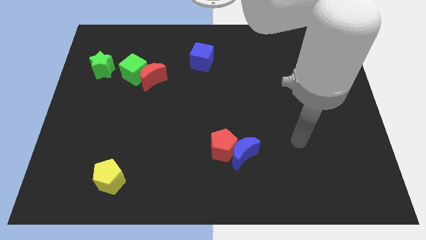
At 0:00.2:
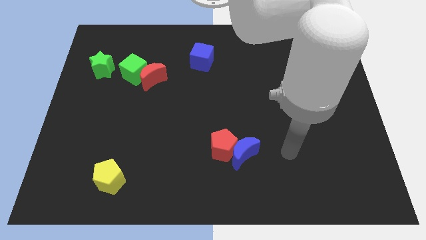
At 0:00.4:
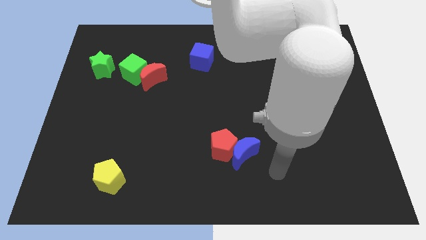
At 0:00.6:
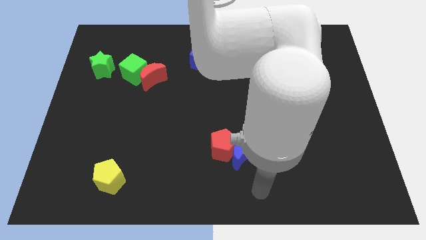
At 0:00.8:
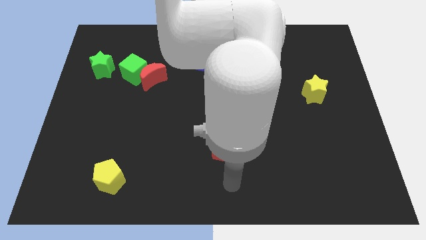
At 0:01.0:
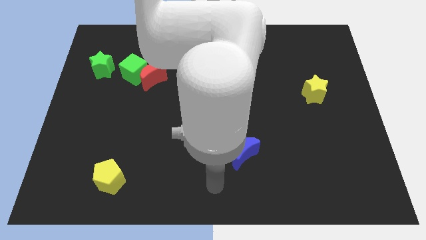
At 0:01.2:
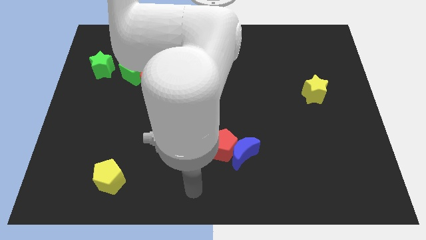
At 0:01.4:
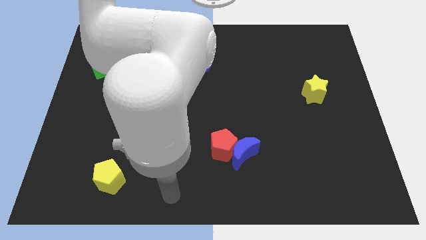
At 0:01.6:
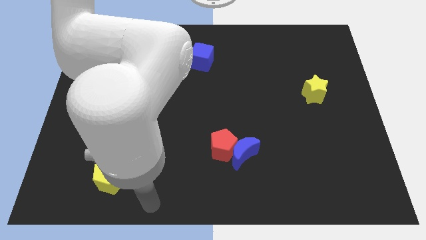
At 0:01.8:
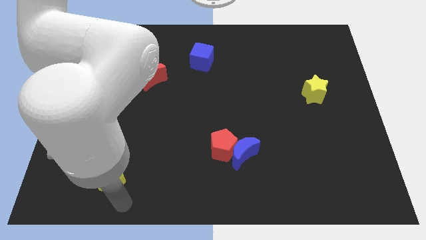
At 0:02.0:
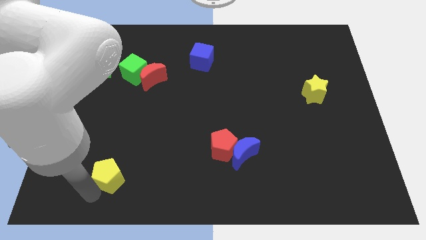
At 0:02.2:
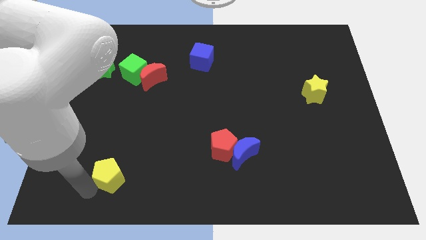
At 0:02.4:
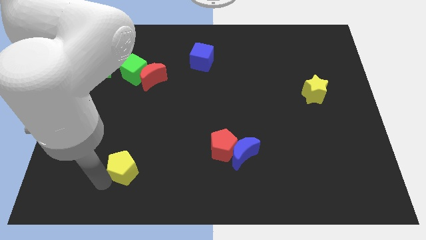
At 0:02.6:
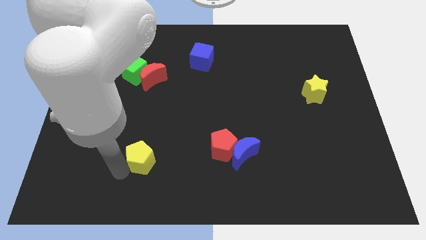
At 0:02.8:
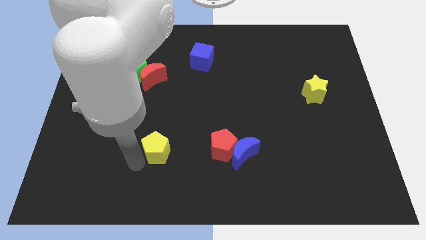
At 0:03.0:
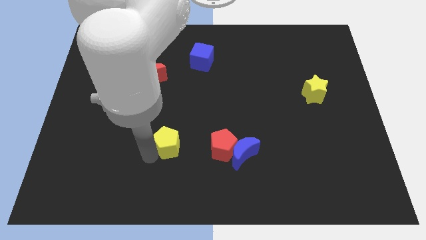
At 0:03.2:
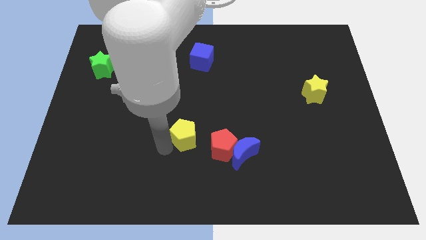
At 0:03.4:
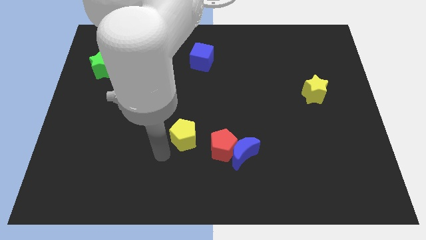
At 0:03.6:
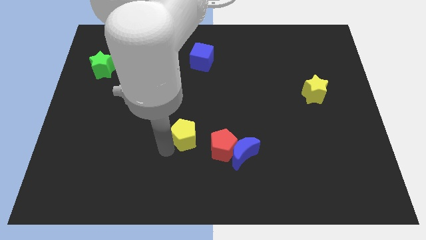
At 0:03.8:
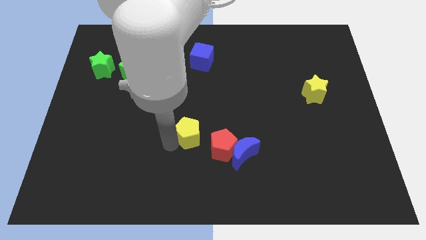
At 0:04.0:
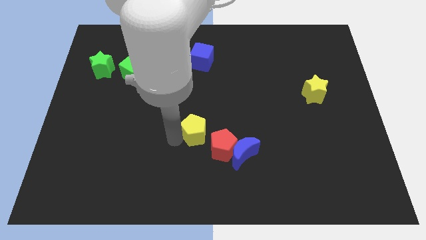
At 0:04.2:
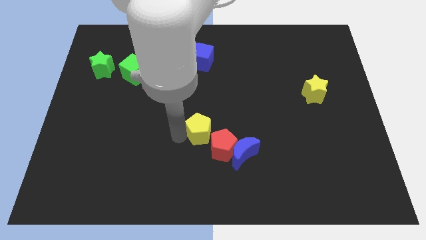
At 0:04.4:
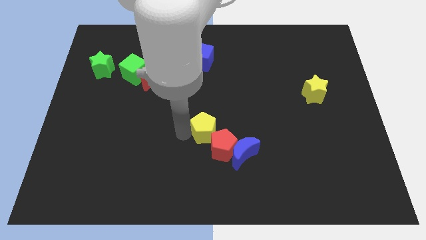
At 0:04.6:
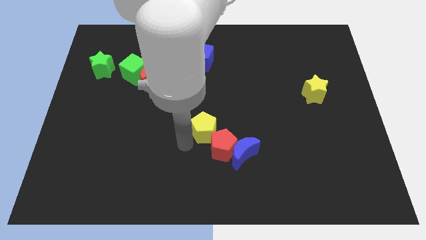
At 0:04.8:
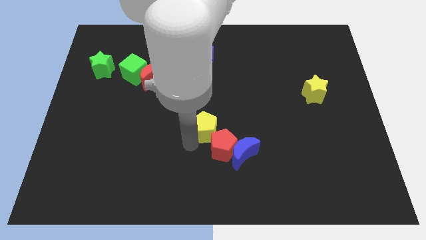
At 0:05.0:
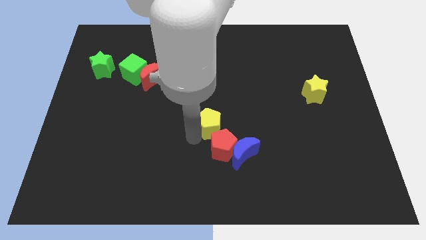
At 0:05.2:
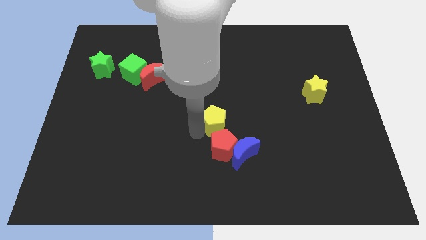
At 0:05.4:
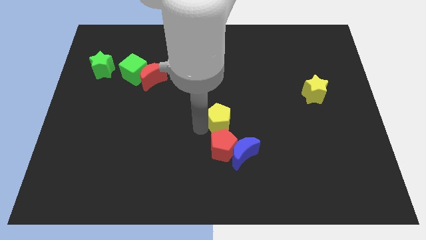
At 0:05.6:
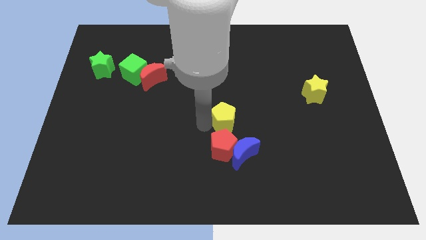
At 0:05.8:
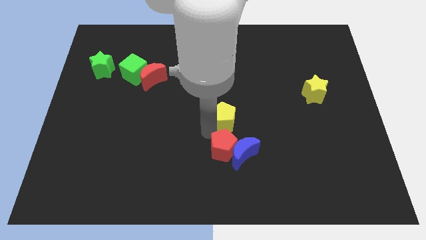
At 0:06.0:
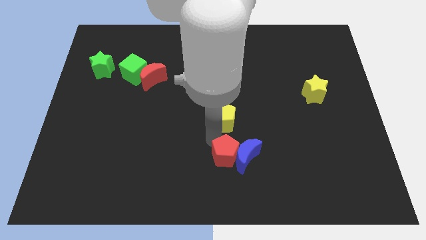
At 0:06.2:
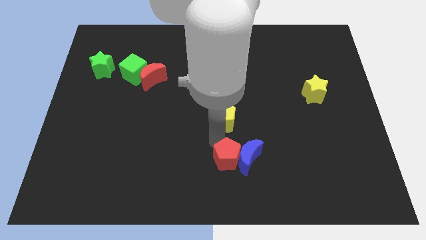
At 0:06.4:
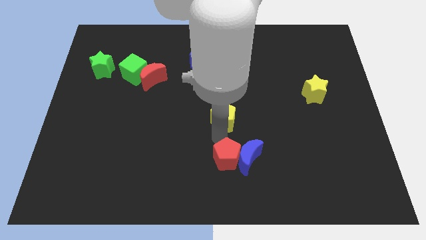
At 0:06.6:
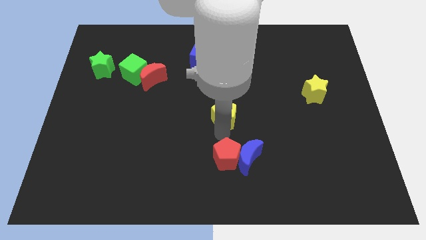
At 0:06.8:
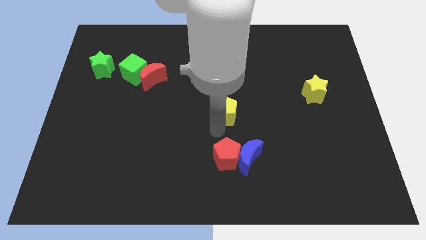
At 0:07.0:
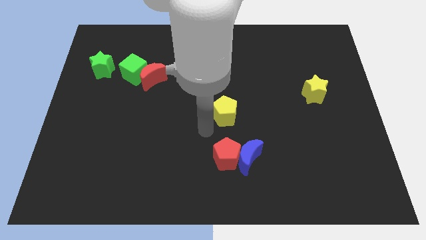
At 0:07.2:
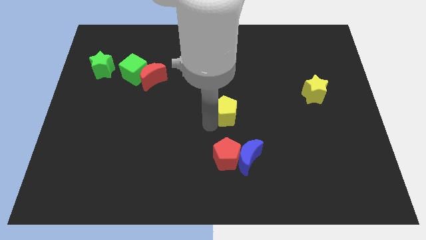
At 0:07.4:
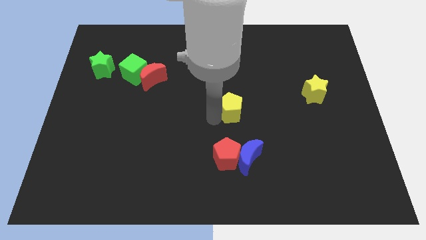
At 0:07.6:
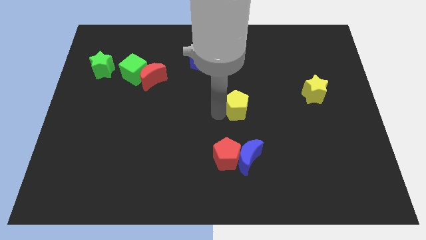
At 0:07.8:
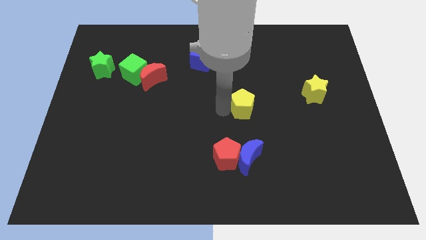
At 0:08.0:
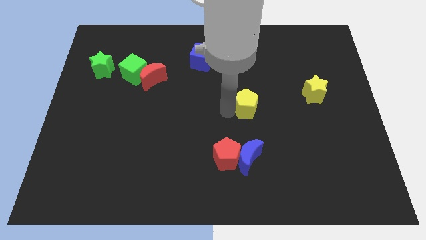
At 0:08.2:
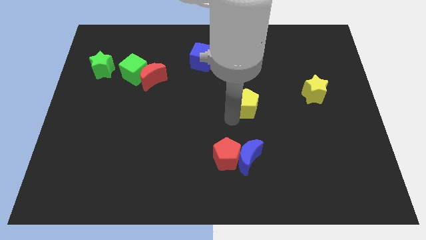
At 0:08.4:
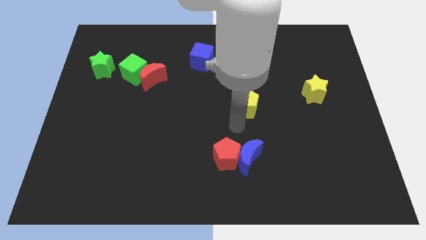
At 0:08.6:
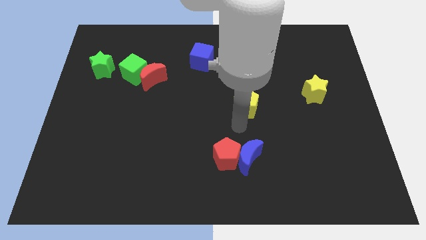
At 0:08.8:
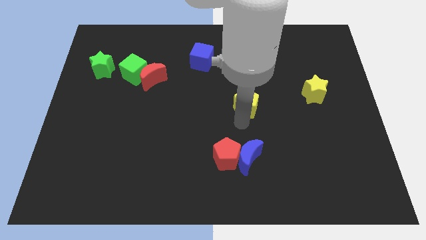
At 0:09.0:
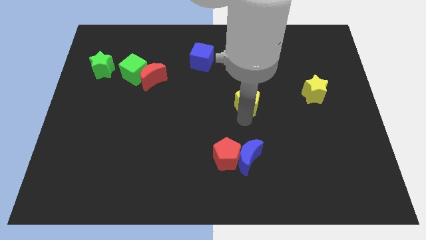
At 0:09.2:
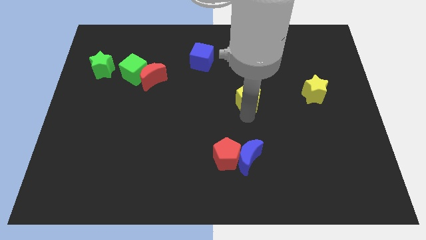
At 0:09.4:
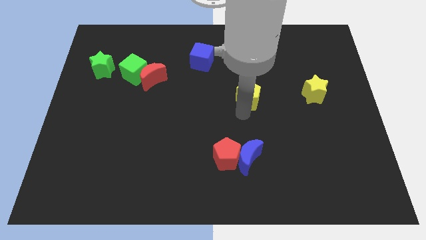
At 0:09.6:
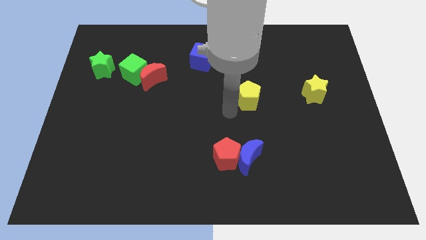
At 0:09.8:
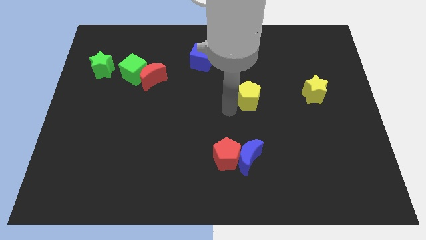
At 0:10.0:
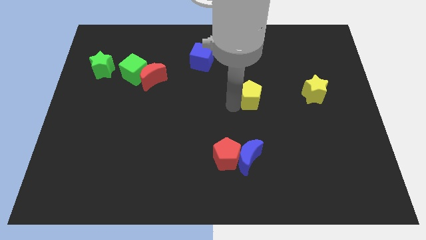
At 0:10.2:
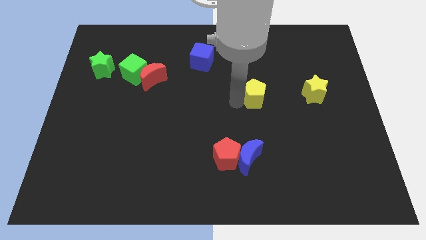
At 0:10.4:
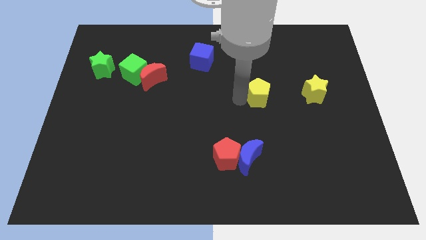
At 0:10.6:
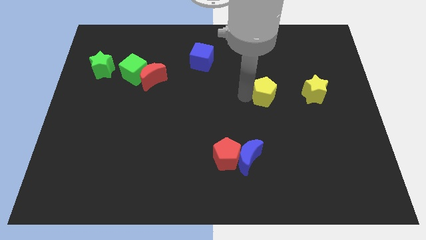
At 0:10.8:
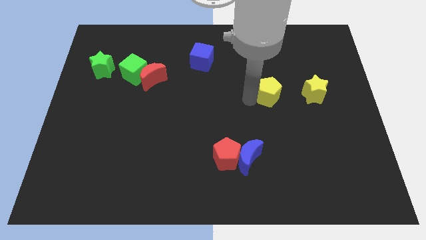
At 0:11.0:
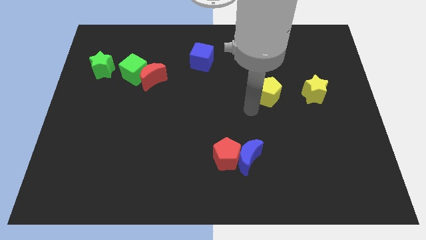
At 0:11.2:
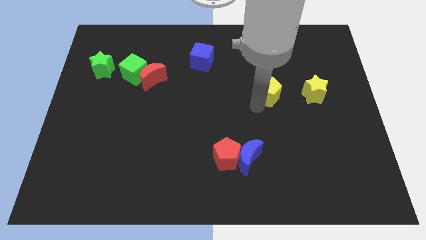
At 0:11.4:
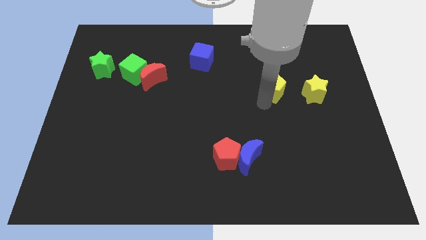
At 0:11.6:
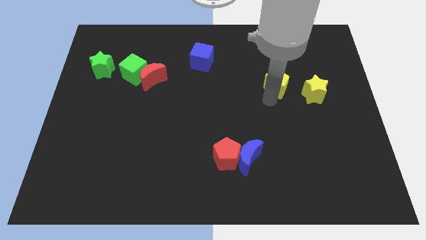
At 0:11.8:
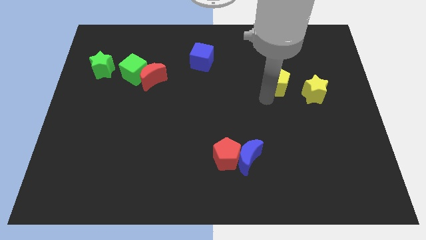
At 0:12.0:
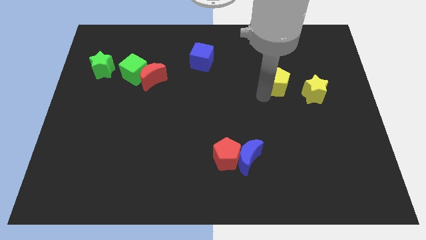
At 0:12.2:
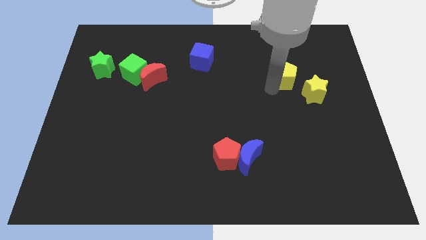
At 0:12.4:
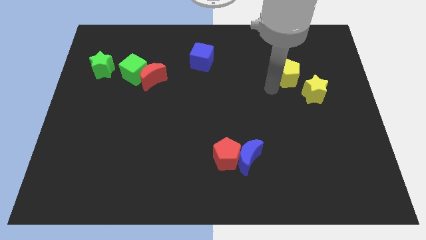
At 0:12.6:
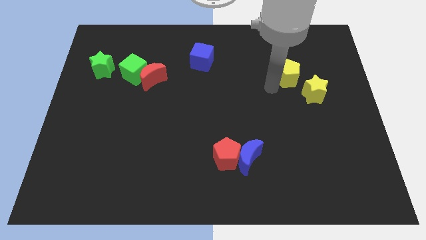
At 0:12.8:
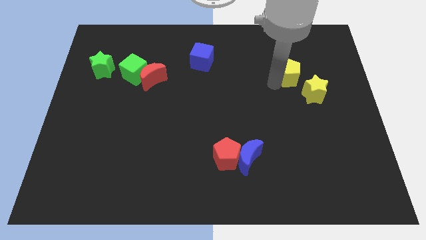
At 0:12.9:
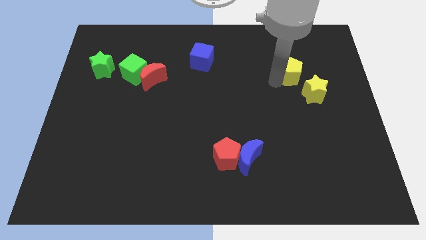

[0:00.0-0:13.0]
put the yellow pentagon to the top side of the yellow star
